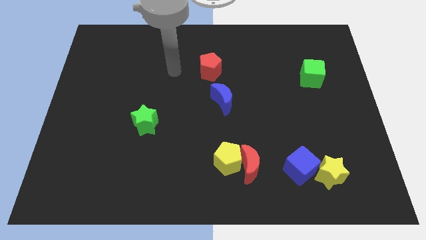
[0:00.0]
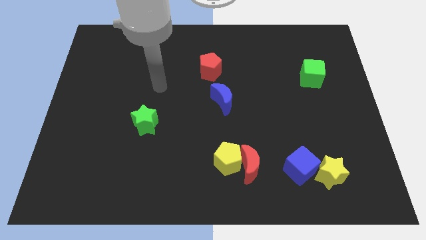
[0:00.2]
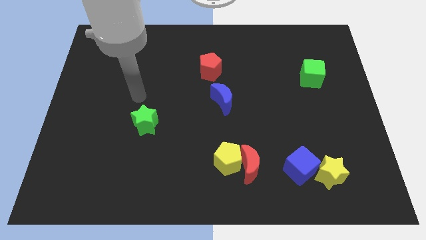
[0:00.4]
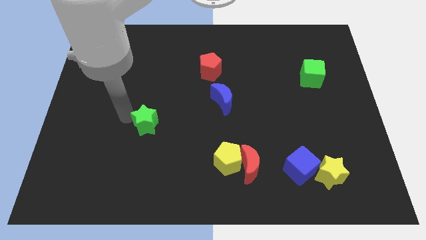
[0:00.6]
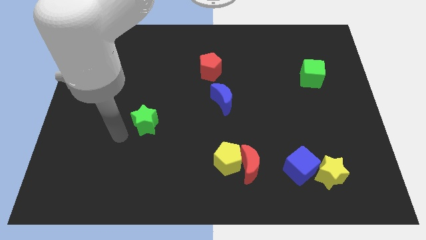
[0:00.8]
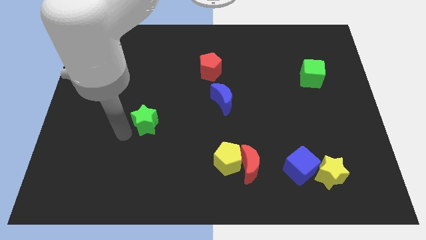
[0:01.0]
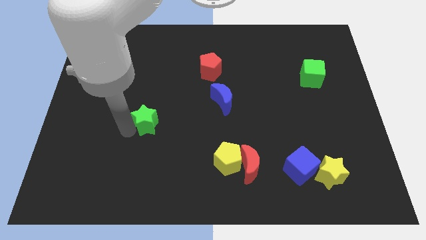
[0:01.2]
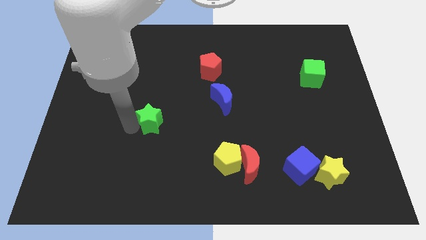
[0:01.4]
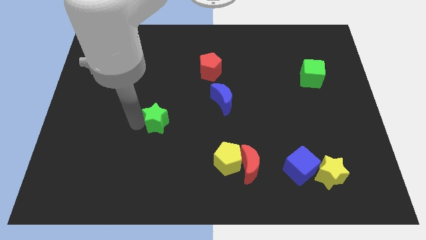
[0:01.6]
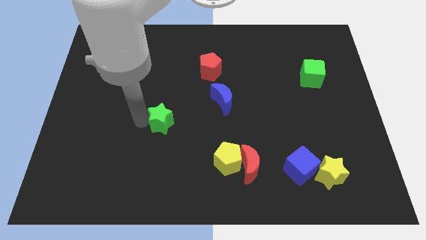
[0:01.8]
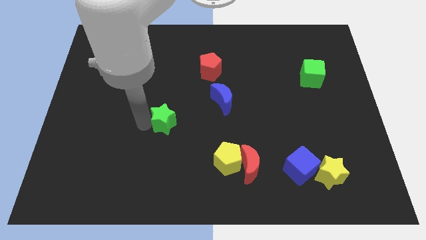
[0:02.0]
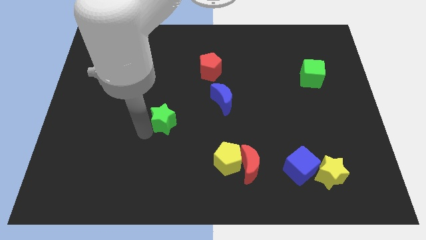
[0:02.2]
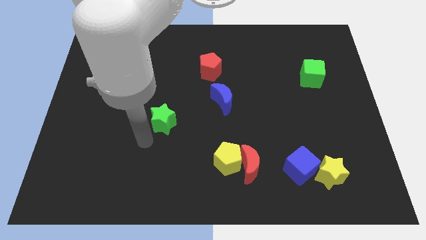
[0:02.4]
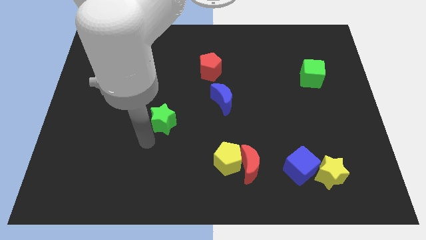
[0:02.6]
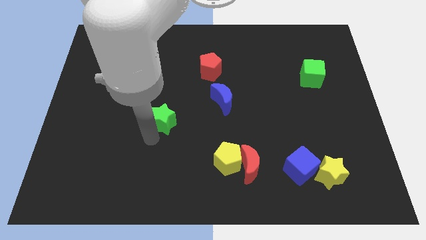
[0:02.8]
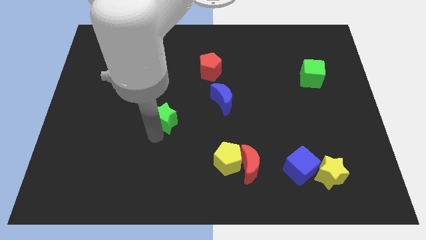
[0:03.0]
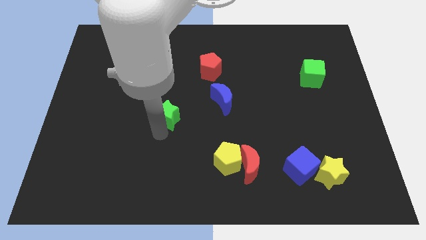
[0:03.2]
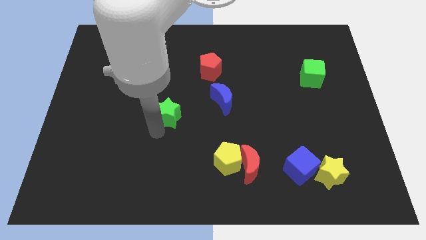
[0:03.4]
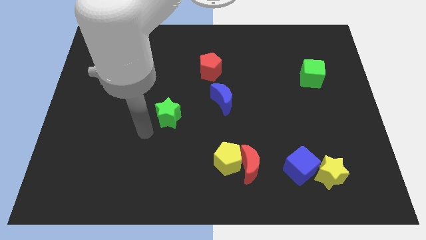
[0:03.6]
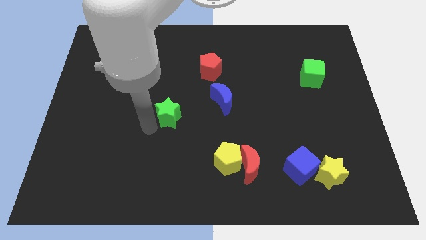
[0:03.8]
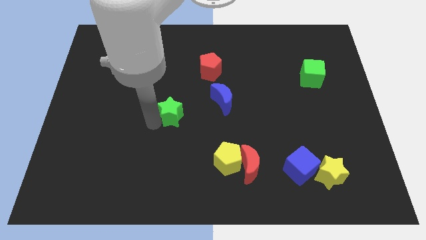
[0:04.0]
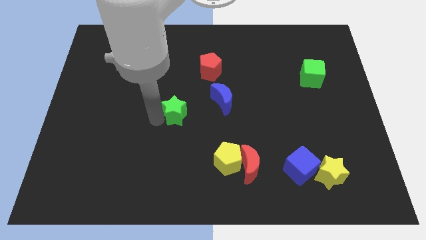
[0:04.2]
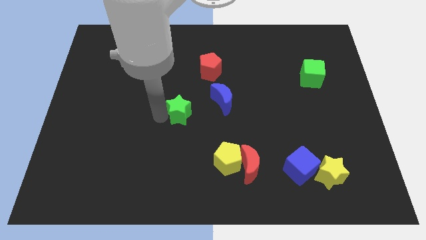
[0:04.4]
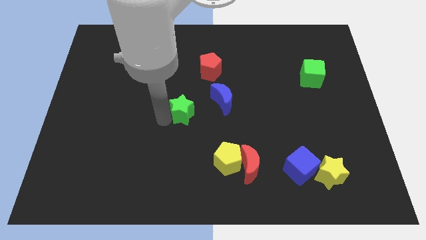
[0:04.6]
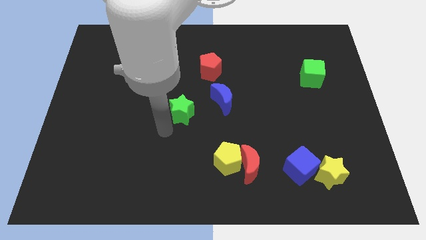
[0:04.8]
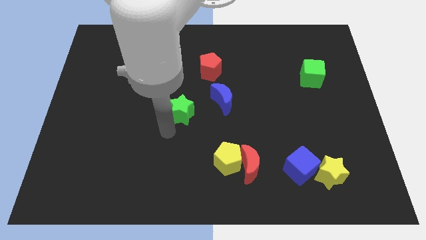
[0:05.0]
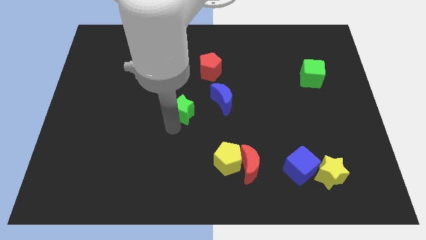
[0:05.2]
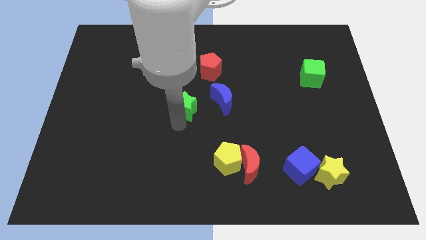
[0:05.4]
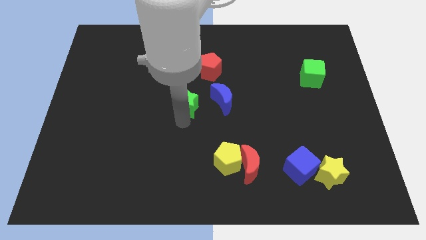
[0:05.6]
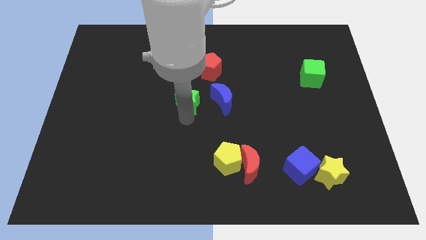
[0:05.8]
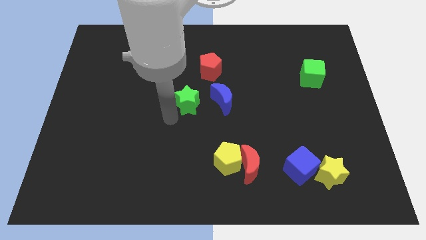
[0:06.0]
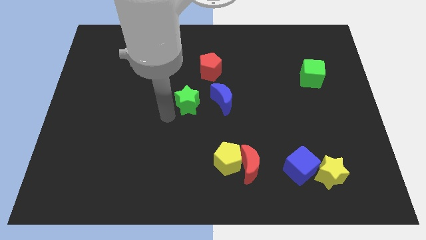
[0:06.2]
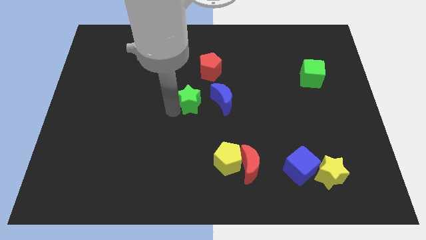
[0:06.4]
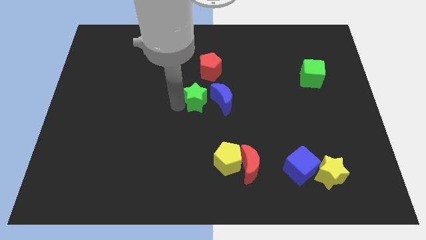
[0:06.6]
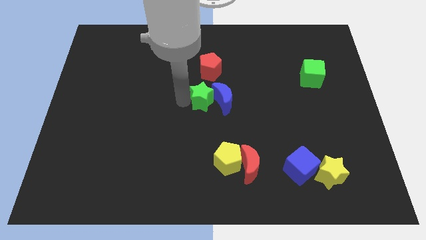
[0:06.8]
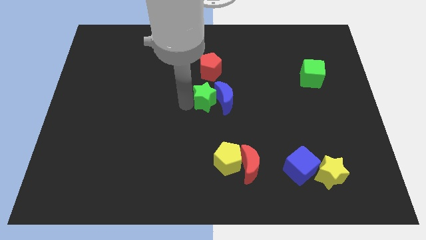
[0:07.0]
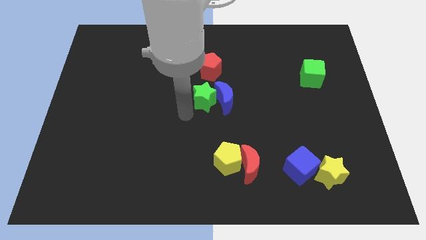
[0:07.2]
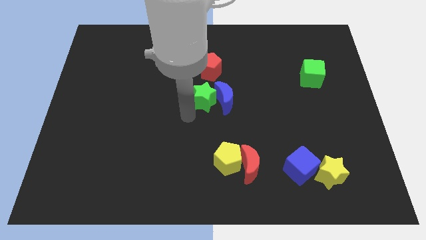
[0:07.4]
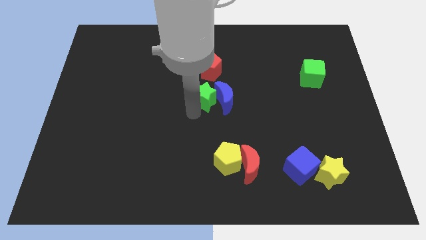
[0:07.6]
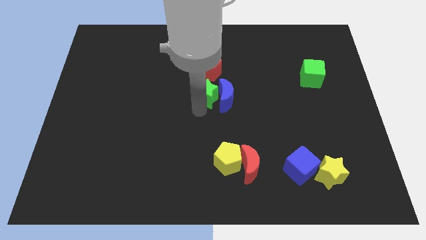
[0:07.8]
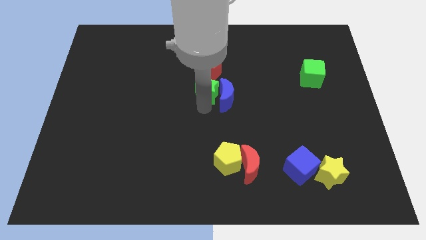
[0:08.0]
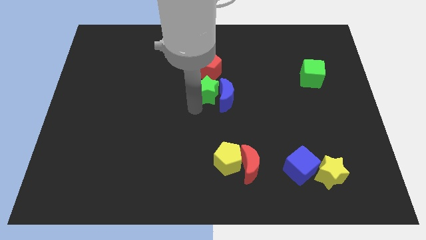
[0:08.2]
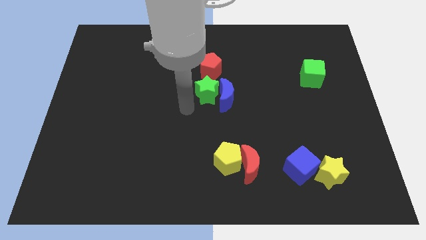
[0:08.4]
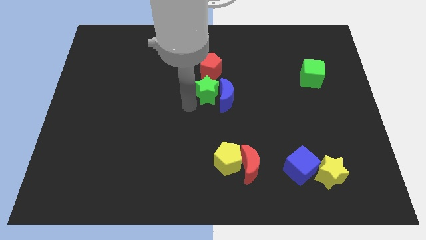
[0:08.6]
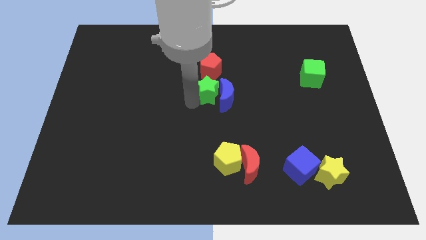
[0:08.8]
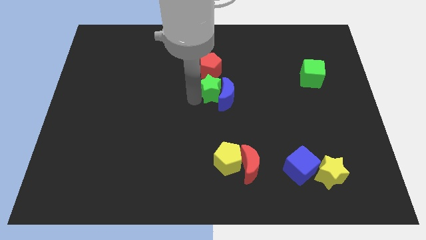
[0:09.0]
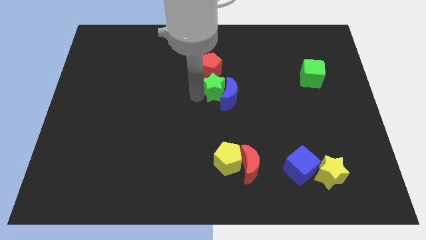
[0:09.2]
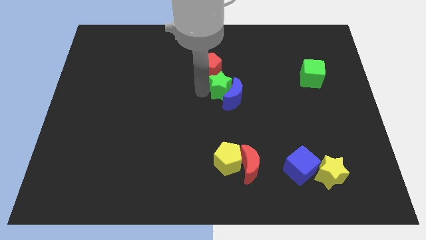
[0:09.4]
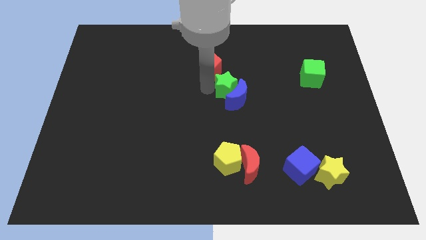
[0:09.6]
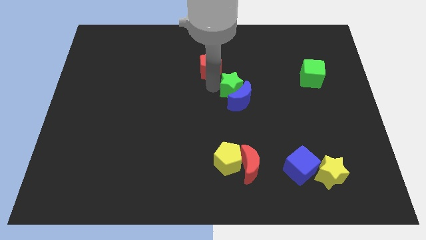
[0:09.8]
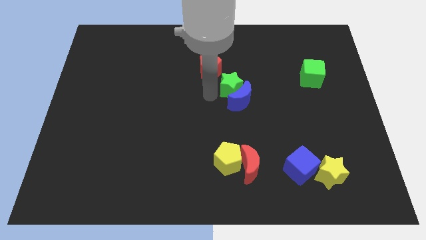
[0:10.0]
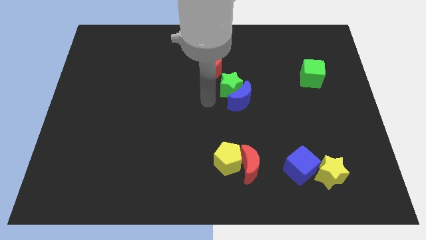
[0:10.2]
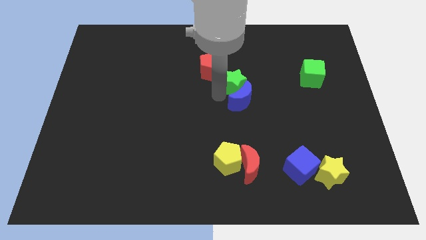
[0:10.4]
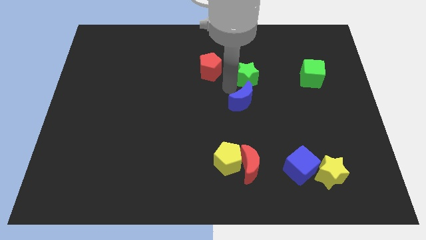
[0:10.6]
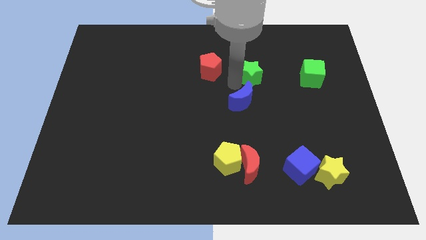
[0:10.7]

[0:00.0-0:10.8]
push the green star to the left side of the green cube

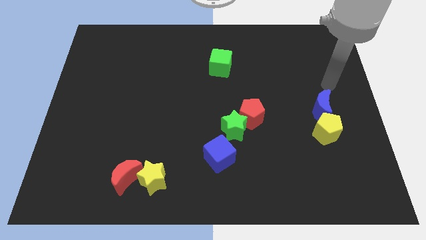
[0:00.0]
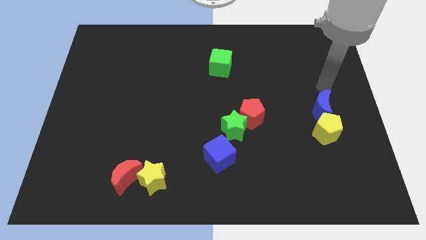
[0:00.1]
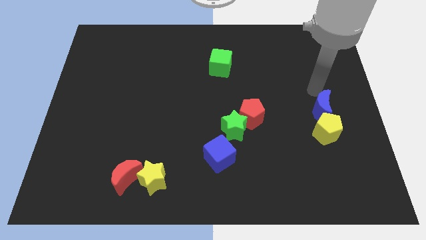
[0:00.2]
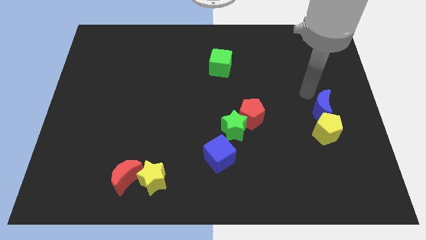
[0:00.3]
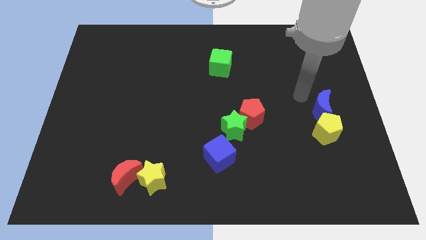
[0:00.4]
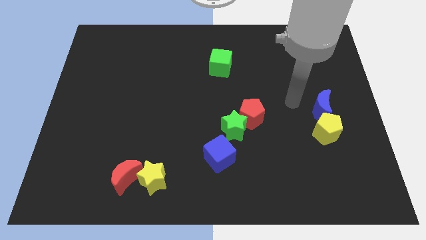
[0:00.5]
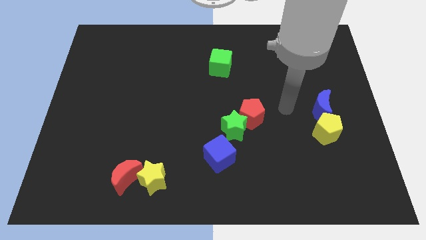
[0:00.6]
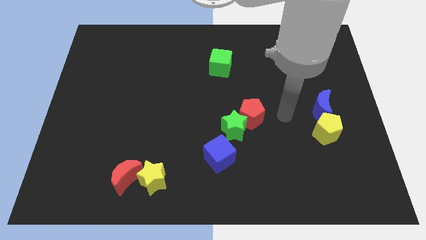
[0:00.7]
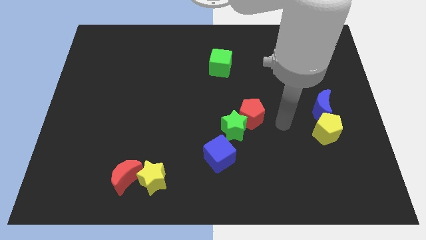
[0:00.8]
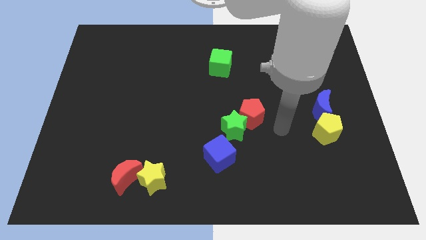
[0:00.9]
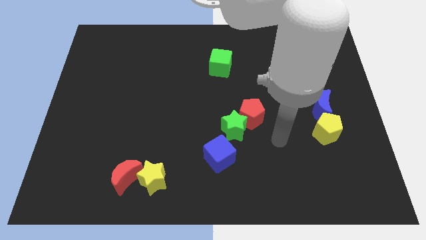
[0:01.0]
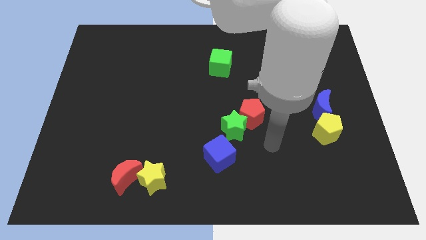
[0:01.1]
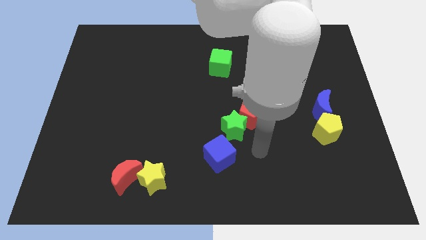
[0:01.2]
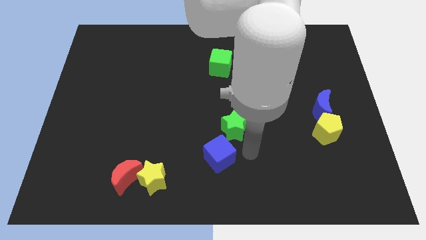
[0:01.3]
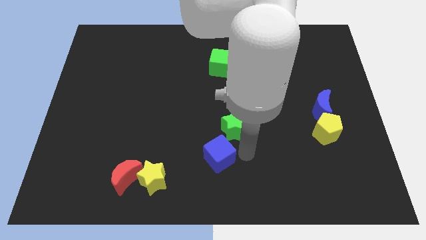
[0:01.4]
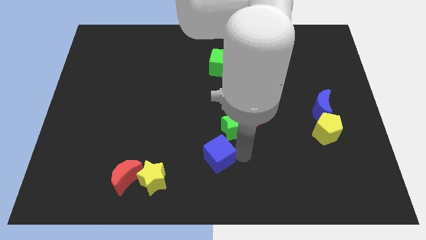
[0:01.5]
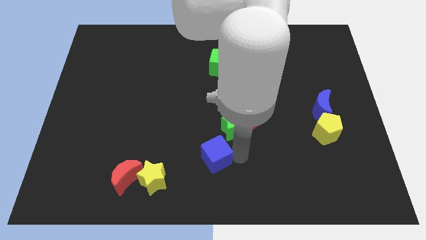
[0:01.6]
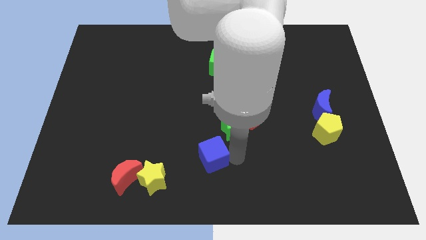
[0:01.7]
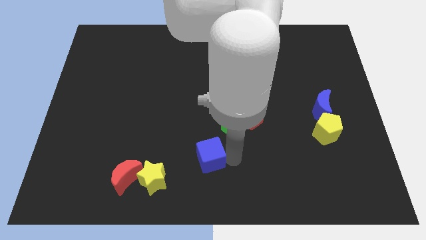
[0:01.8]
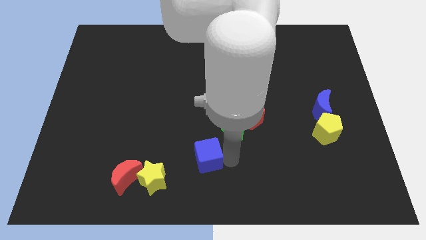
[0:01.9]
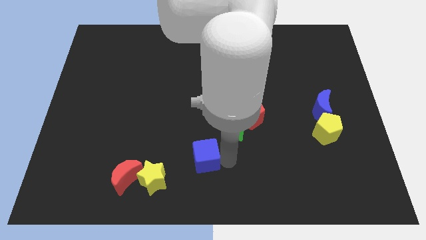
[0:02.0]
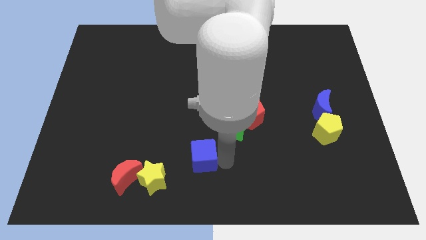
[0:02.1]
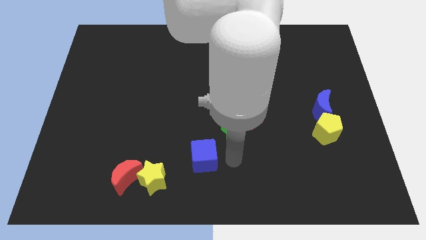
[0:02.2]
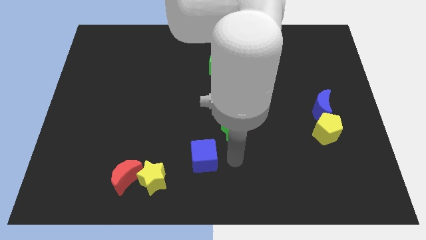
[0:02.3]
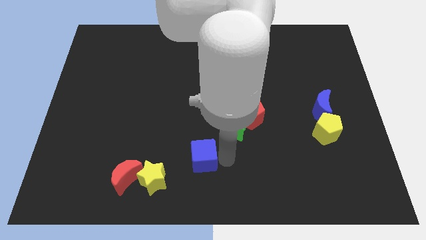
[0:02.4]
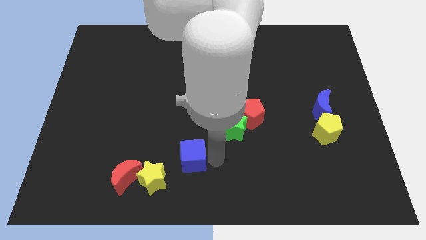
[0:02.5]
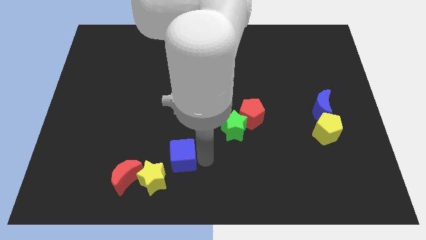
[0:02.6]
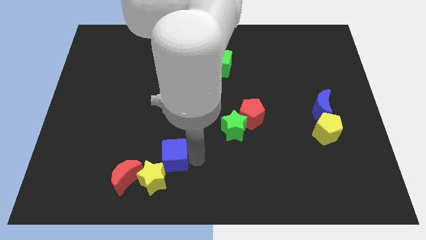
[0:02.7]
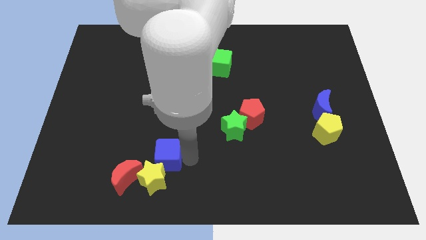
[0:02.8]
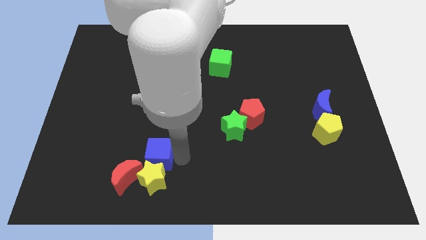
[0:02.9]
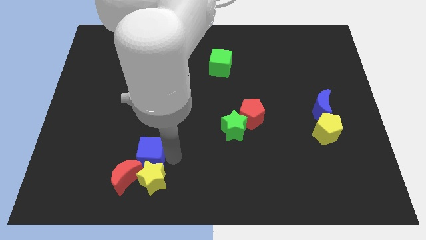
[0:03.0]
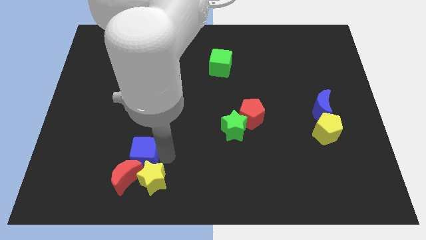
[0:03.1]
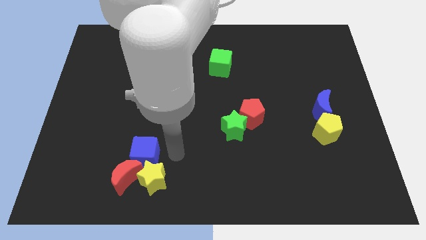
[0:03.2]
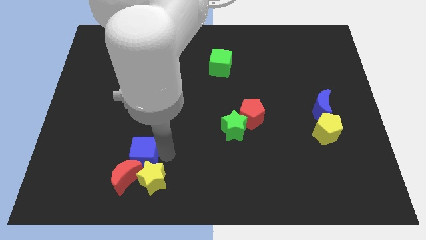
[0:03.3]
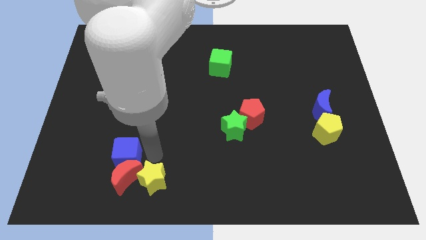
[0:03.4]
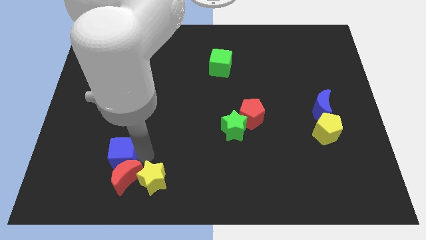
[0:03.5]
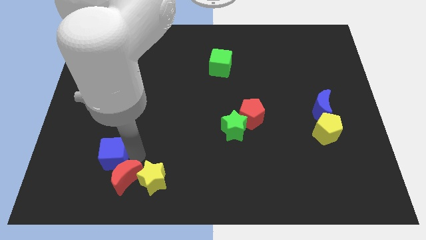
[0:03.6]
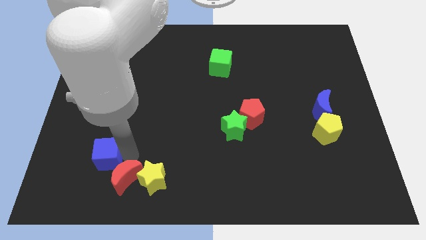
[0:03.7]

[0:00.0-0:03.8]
put the blue cube left of the red moon
